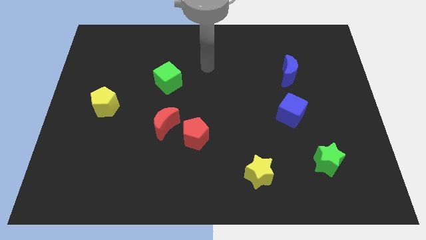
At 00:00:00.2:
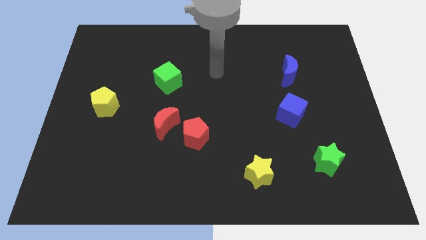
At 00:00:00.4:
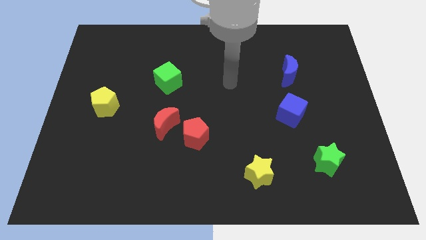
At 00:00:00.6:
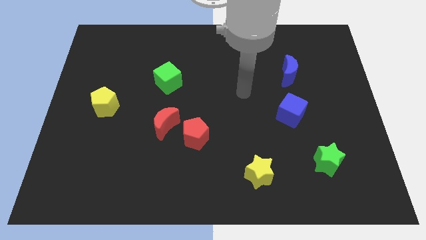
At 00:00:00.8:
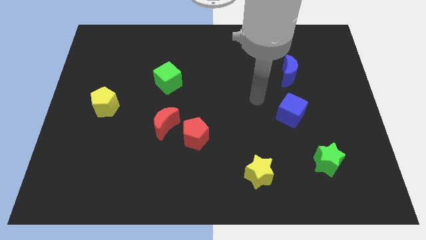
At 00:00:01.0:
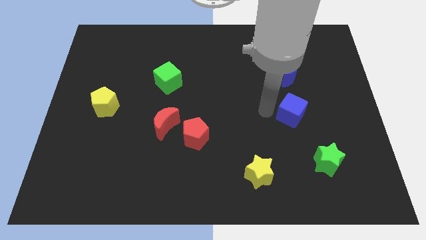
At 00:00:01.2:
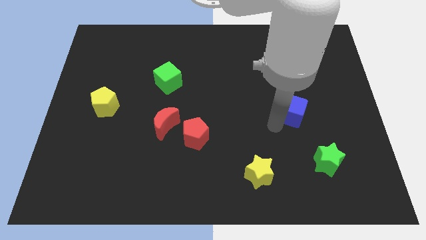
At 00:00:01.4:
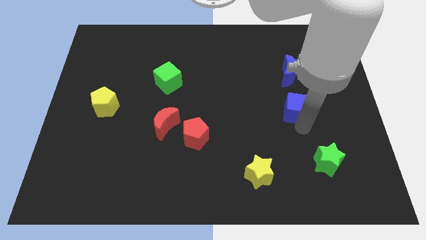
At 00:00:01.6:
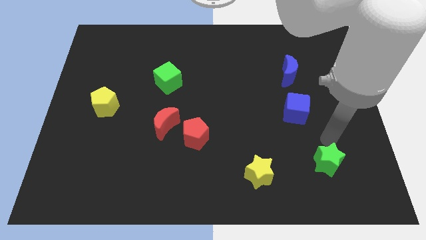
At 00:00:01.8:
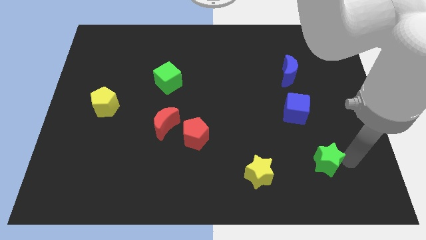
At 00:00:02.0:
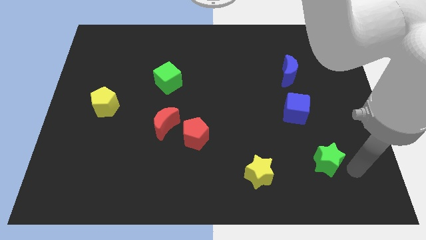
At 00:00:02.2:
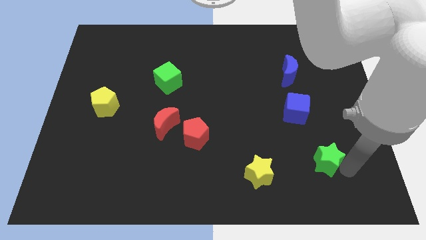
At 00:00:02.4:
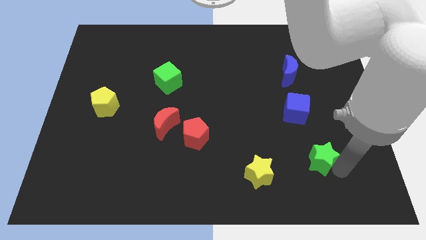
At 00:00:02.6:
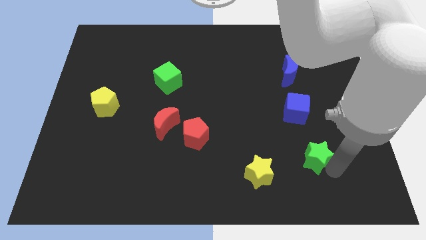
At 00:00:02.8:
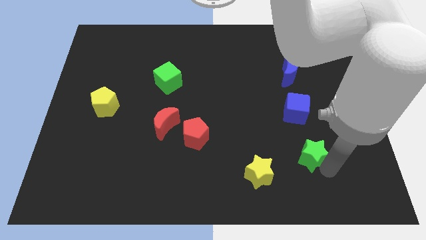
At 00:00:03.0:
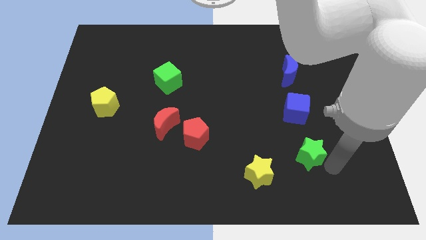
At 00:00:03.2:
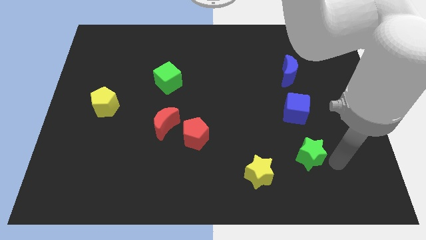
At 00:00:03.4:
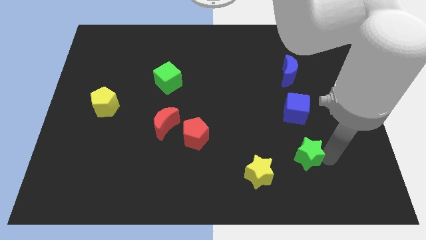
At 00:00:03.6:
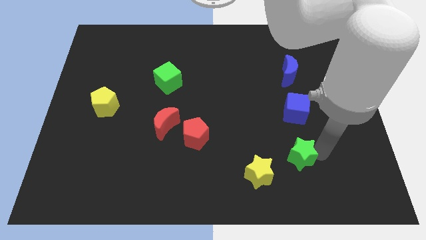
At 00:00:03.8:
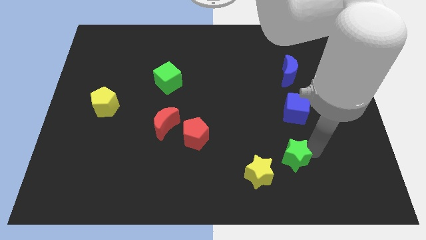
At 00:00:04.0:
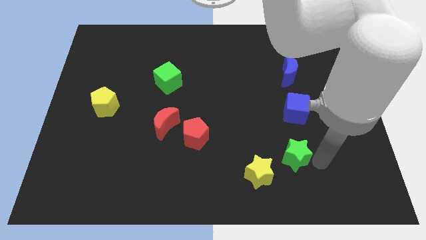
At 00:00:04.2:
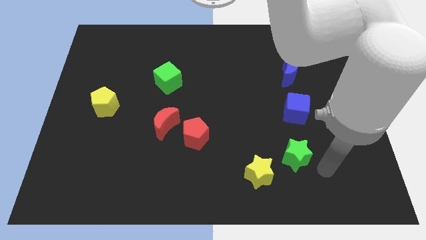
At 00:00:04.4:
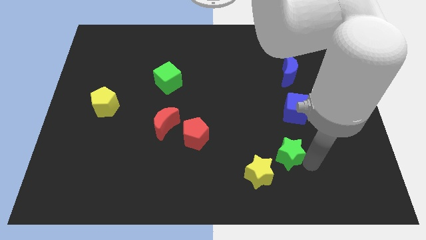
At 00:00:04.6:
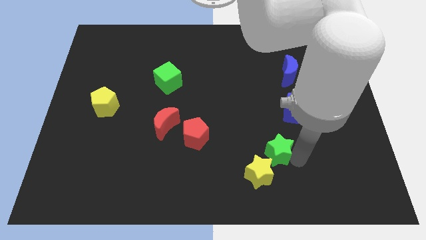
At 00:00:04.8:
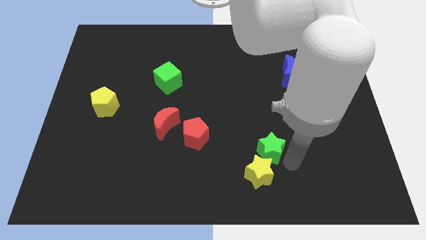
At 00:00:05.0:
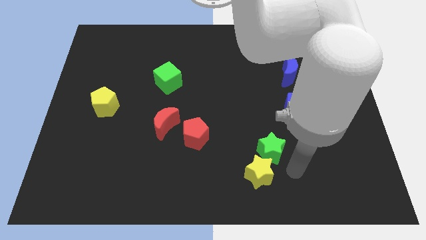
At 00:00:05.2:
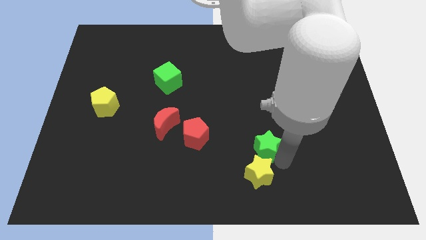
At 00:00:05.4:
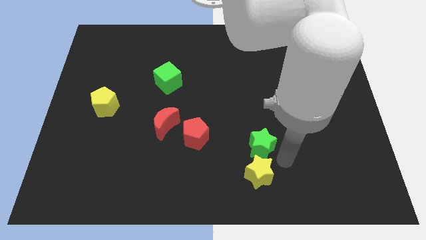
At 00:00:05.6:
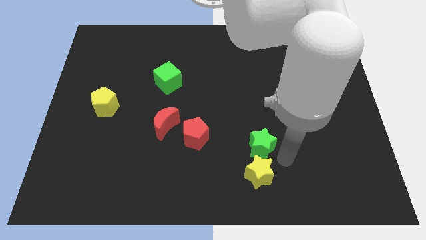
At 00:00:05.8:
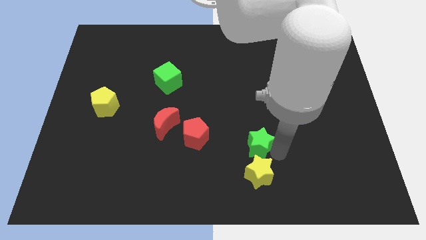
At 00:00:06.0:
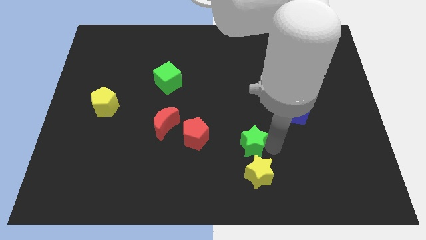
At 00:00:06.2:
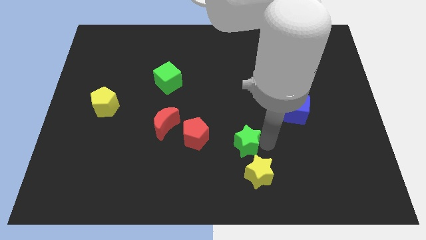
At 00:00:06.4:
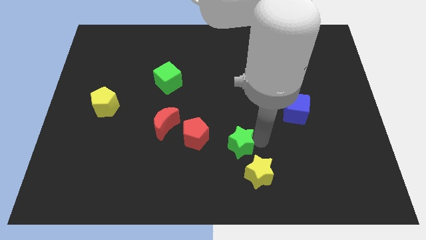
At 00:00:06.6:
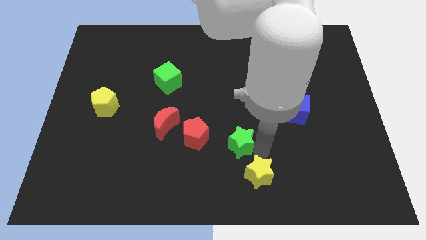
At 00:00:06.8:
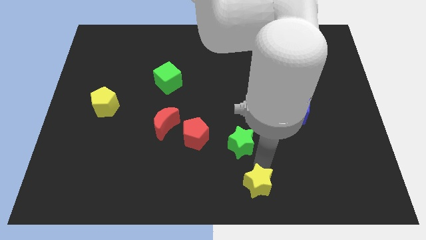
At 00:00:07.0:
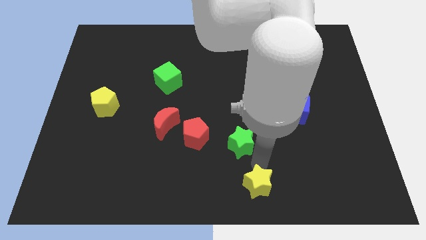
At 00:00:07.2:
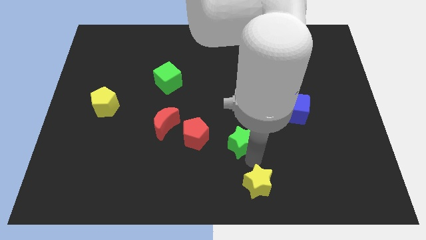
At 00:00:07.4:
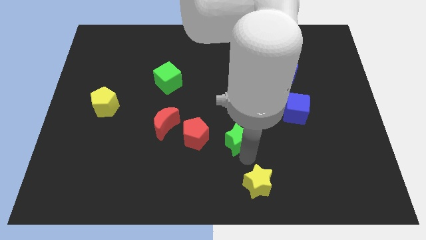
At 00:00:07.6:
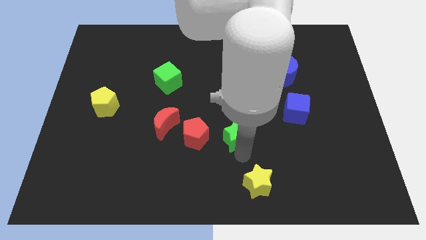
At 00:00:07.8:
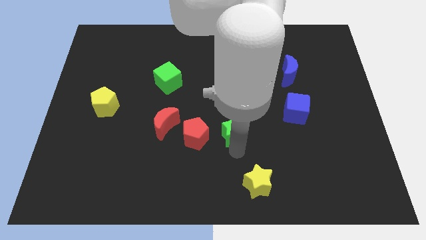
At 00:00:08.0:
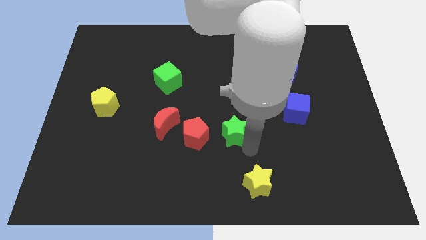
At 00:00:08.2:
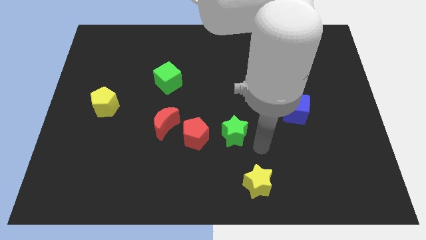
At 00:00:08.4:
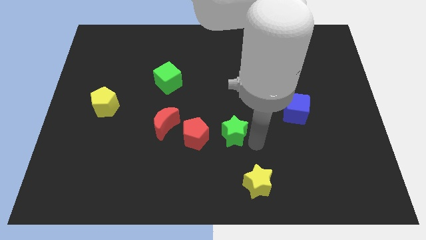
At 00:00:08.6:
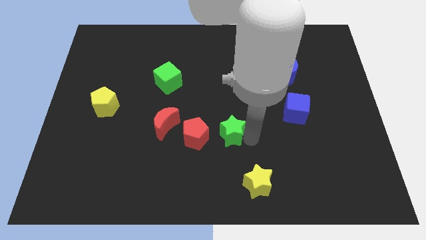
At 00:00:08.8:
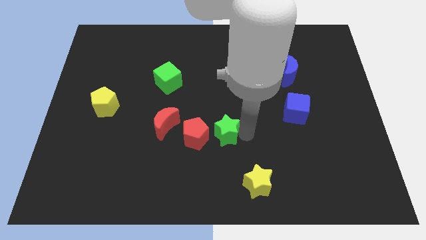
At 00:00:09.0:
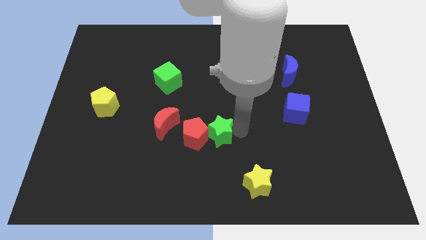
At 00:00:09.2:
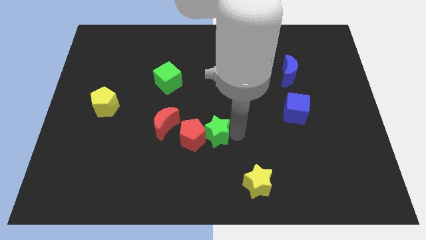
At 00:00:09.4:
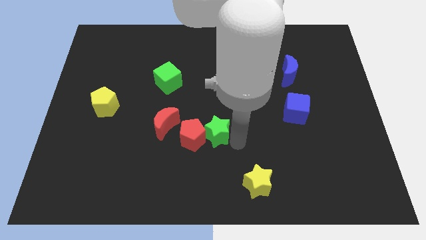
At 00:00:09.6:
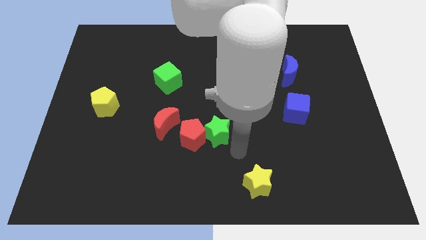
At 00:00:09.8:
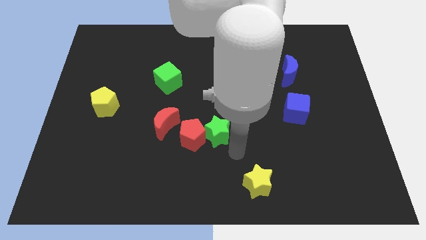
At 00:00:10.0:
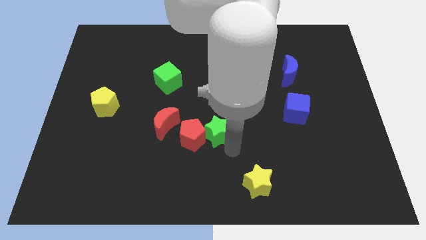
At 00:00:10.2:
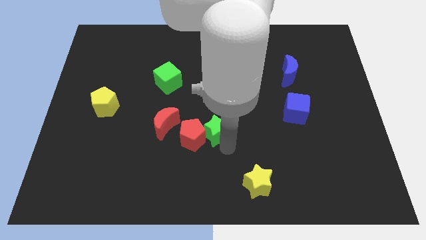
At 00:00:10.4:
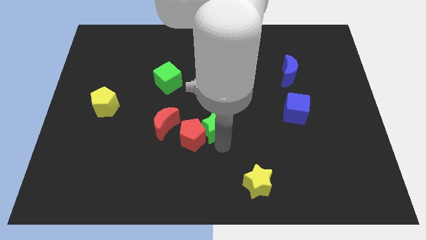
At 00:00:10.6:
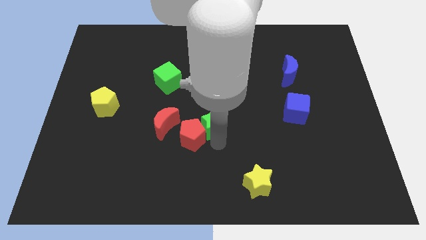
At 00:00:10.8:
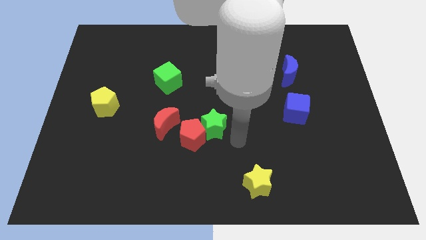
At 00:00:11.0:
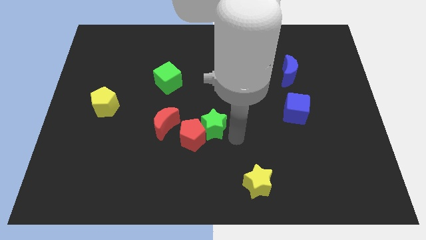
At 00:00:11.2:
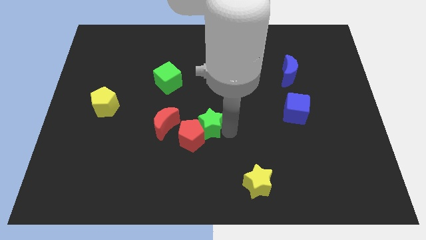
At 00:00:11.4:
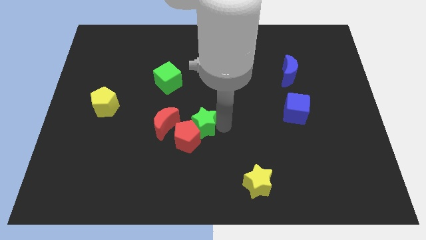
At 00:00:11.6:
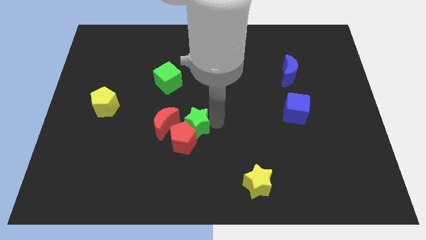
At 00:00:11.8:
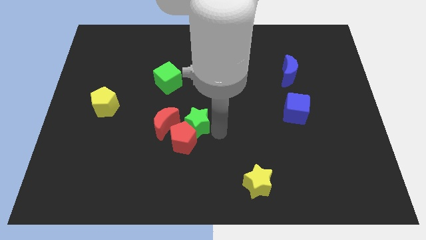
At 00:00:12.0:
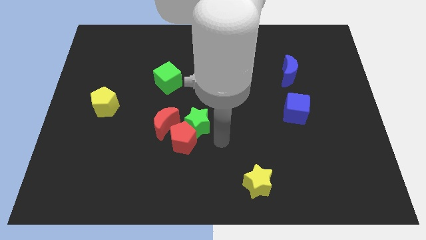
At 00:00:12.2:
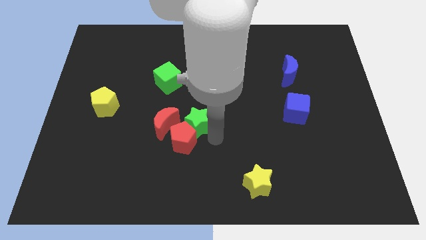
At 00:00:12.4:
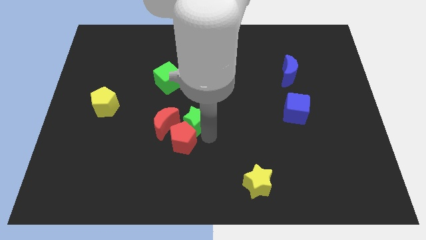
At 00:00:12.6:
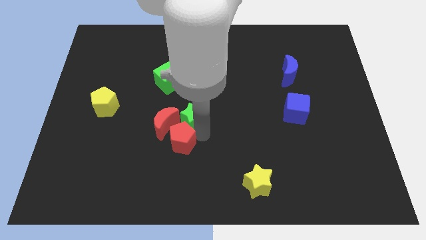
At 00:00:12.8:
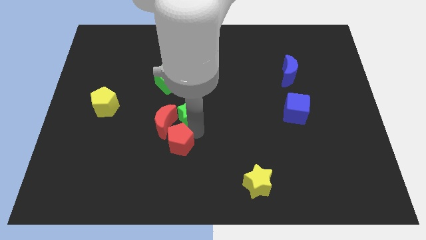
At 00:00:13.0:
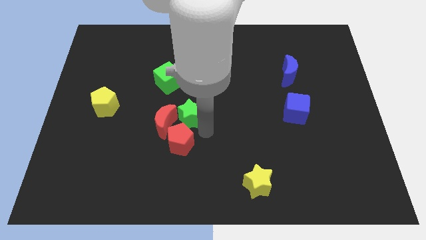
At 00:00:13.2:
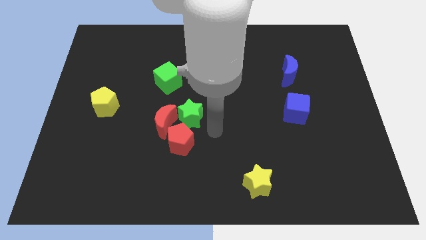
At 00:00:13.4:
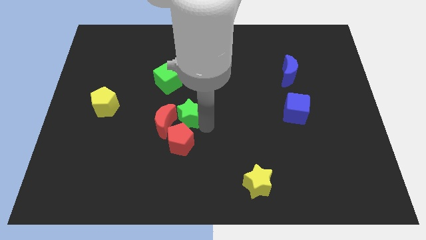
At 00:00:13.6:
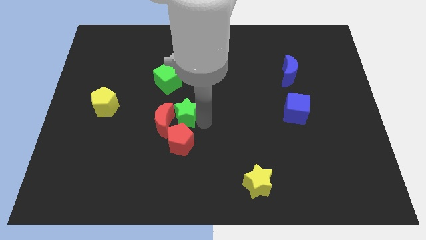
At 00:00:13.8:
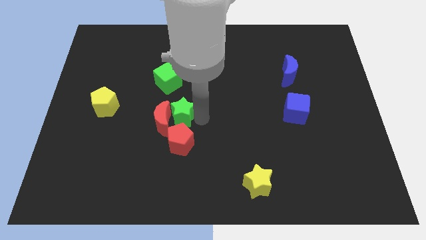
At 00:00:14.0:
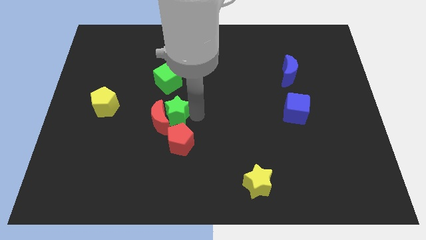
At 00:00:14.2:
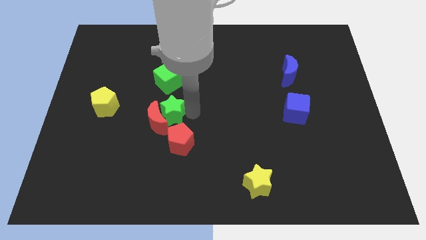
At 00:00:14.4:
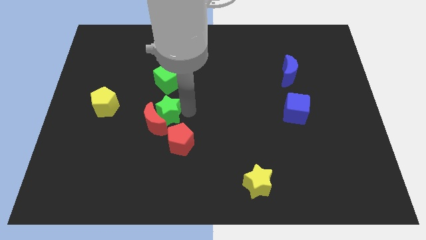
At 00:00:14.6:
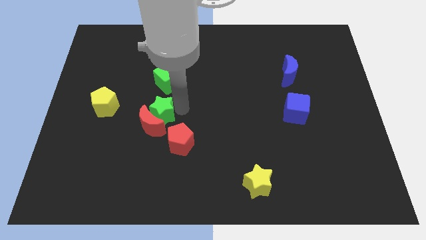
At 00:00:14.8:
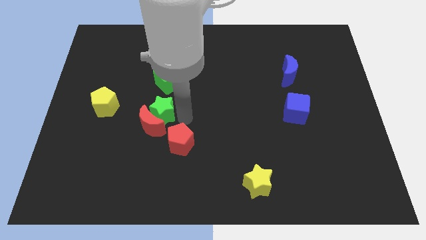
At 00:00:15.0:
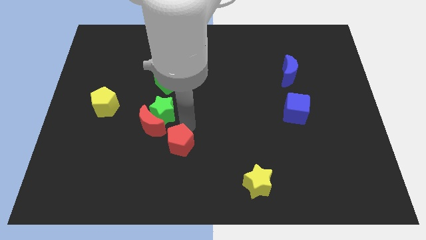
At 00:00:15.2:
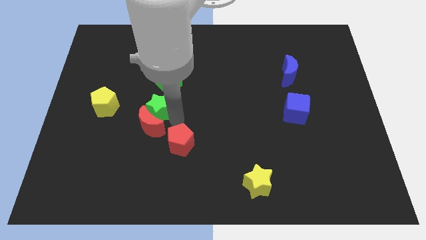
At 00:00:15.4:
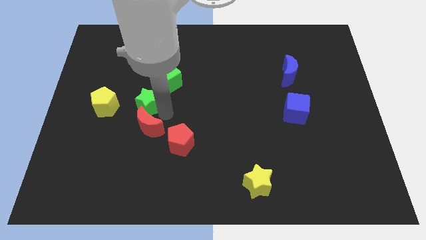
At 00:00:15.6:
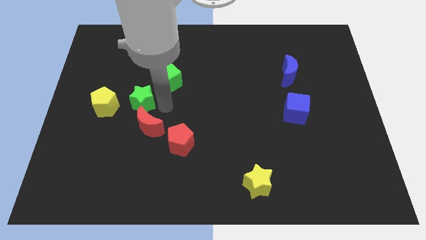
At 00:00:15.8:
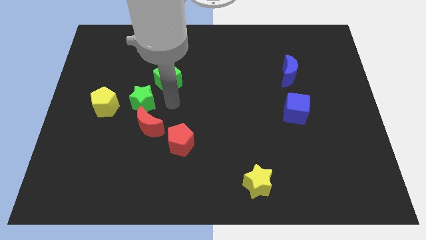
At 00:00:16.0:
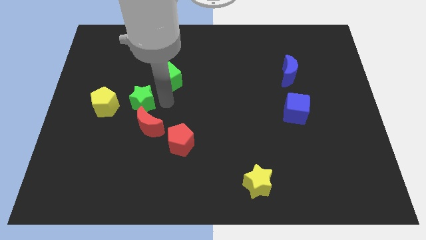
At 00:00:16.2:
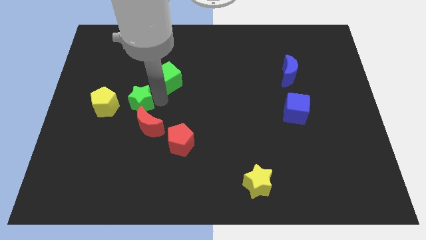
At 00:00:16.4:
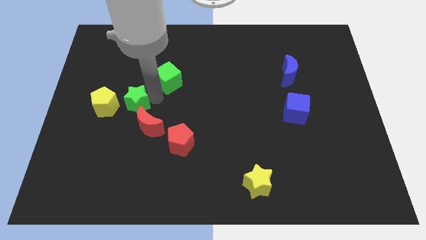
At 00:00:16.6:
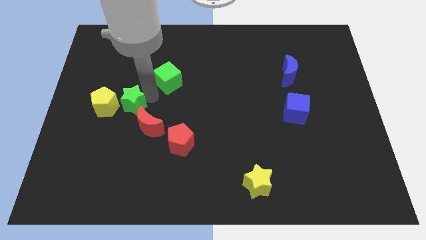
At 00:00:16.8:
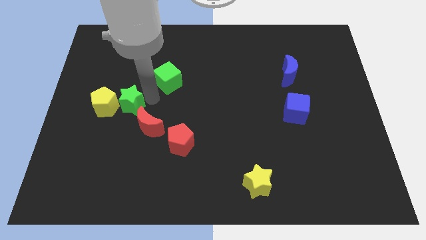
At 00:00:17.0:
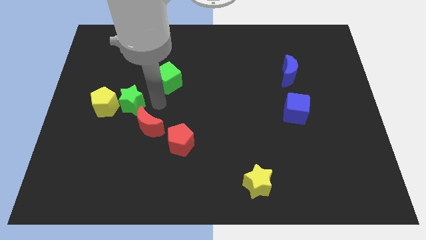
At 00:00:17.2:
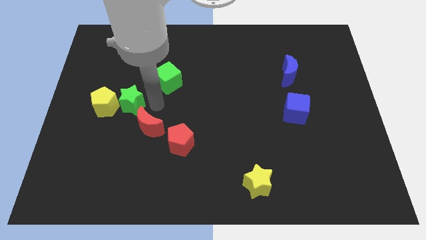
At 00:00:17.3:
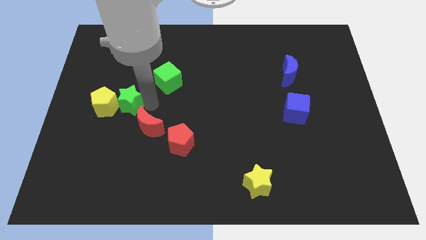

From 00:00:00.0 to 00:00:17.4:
move the green star to the yellow pentagon
